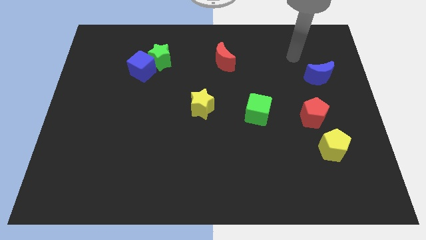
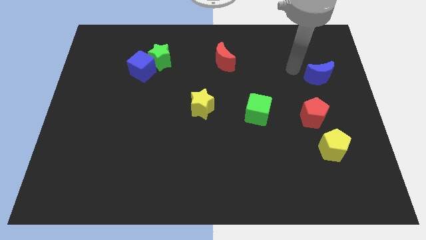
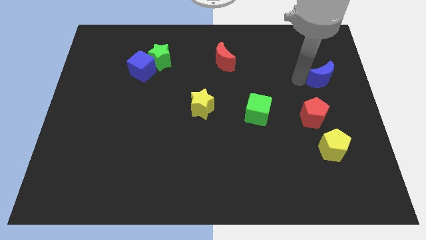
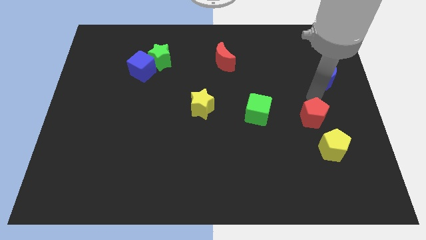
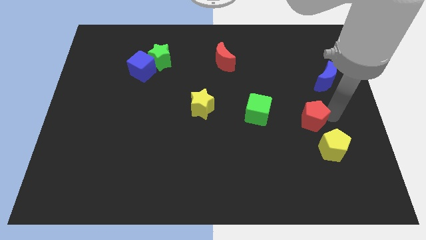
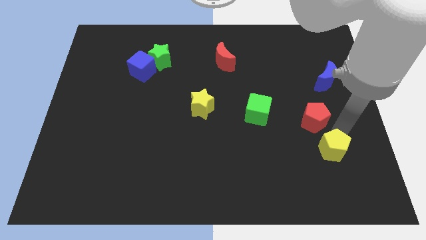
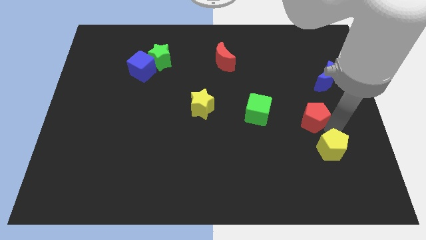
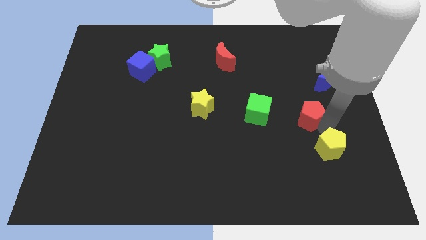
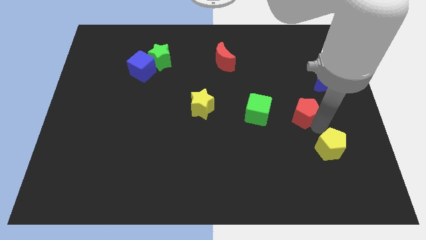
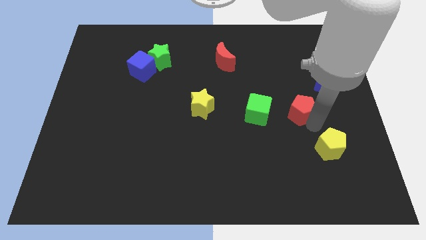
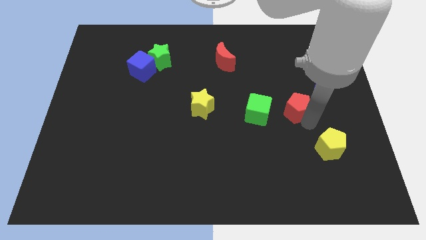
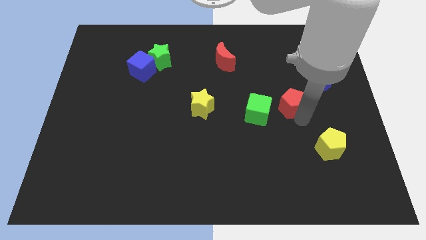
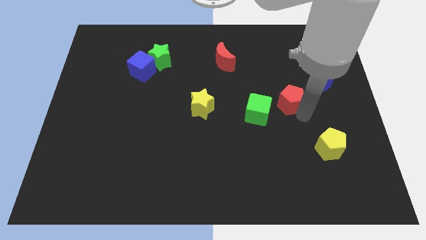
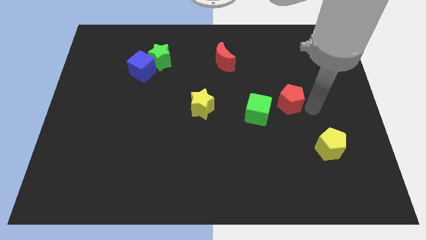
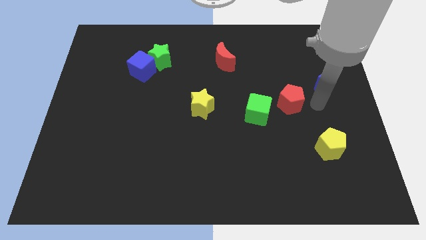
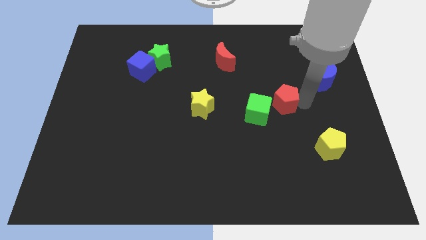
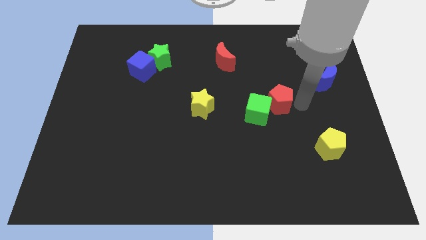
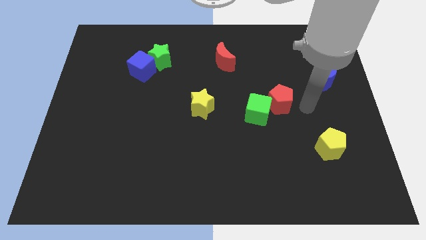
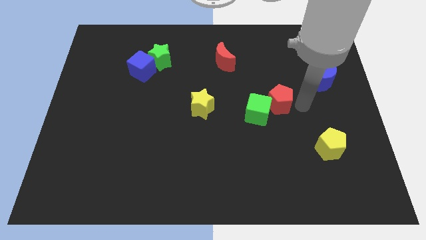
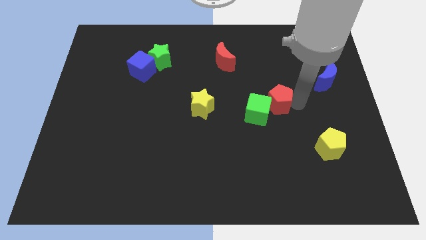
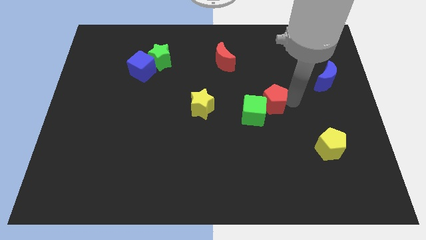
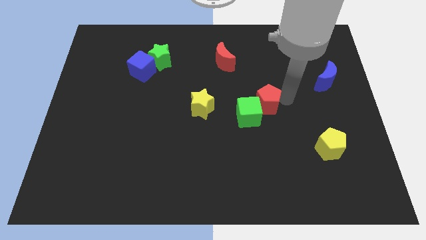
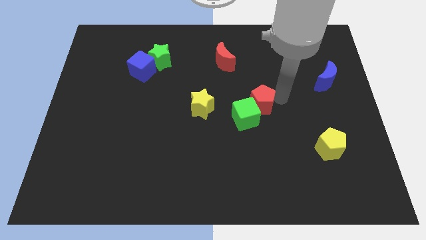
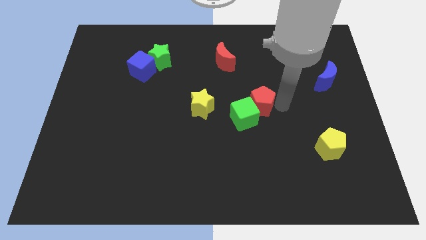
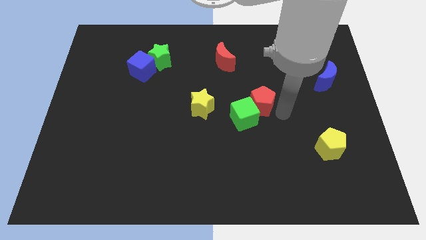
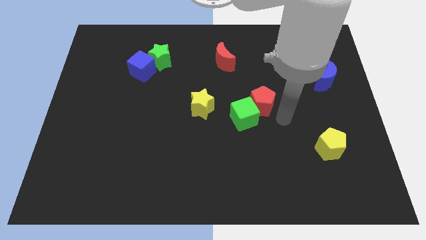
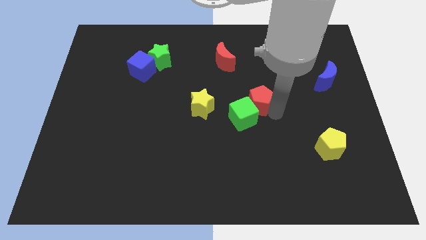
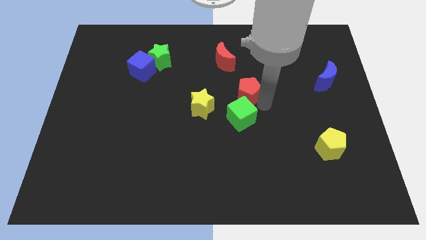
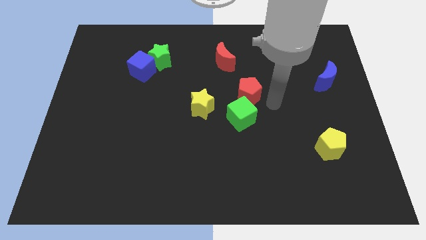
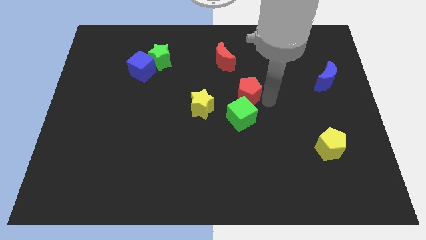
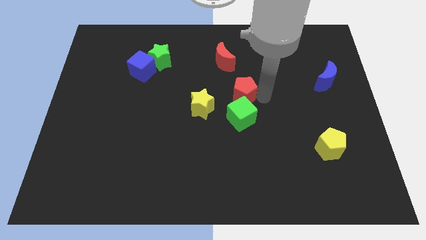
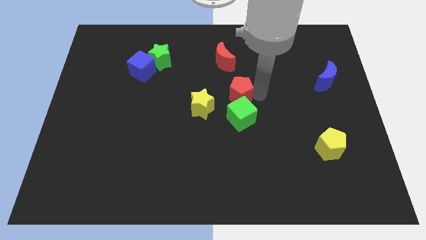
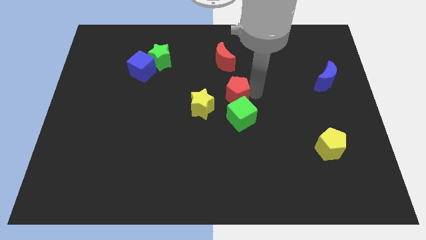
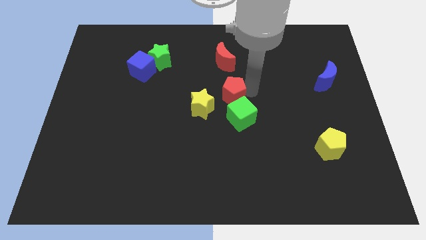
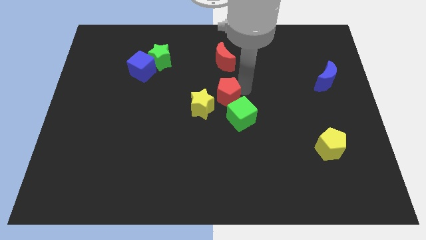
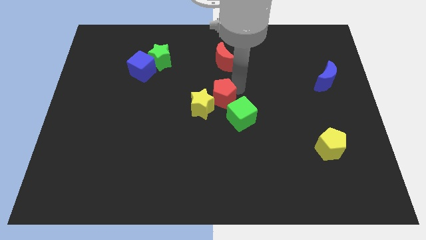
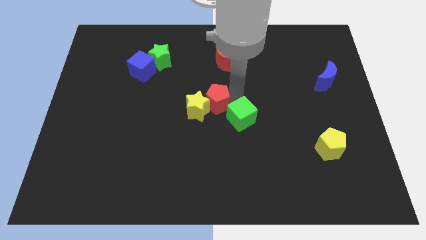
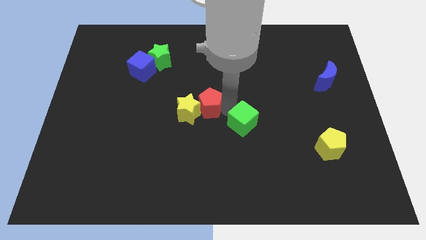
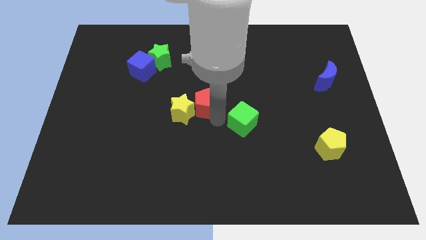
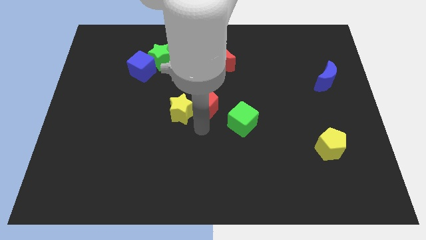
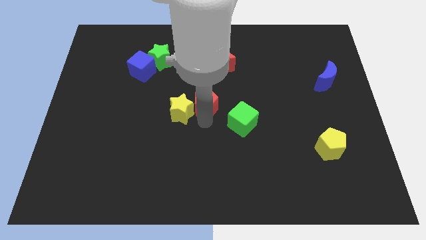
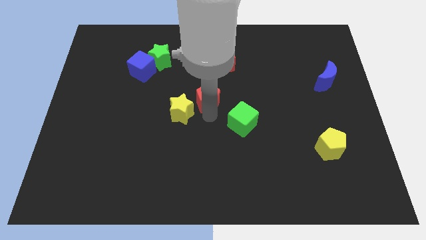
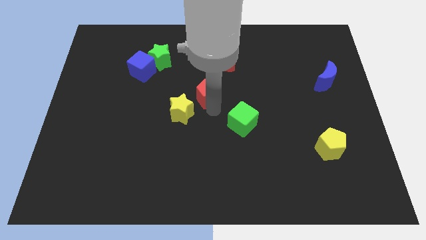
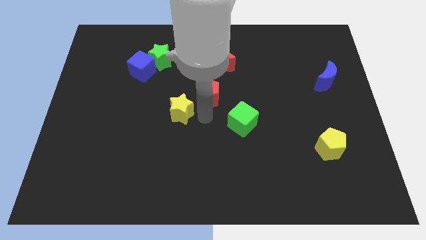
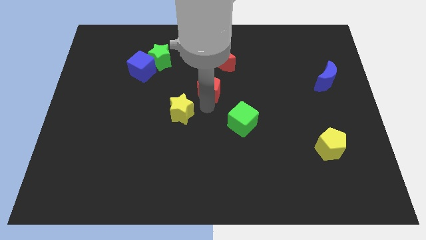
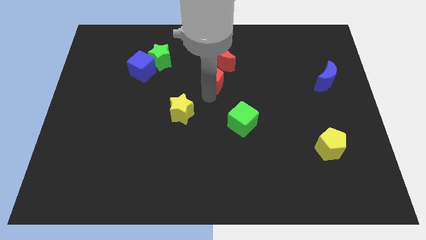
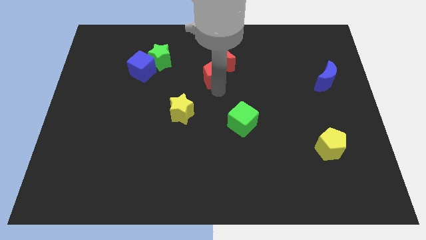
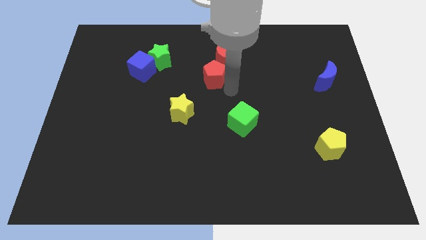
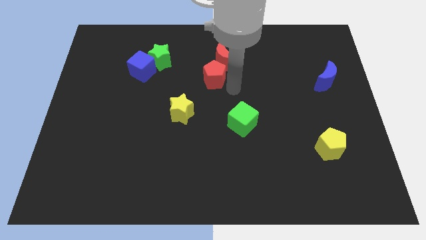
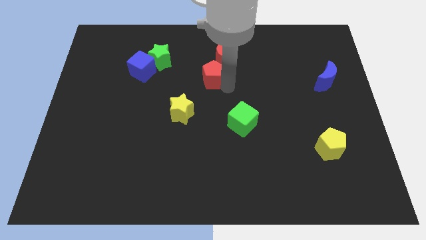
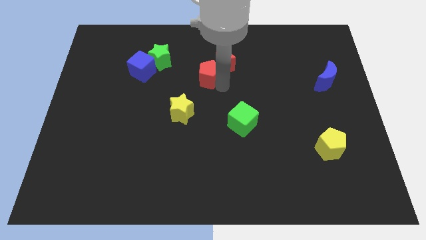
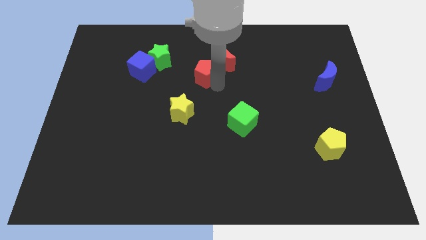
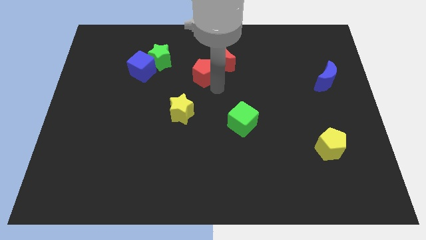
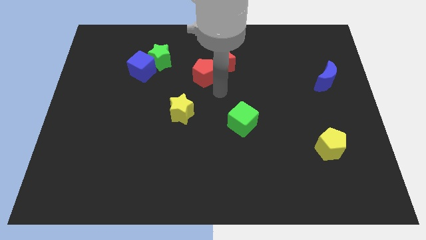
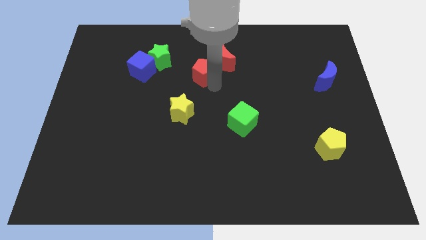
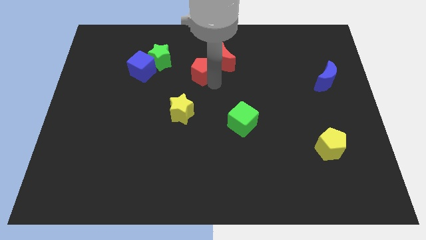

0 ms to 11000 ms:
put the red pentagon left of the red moon

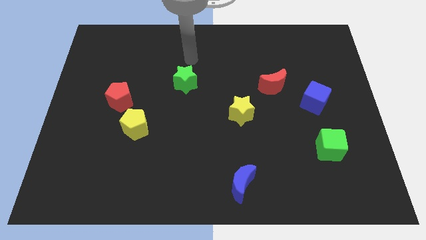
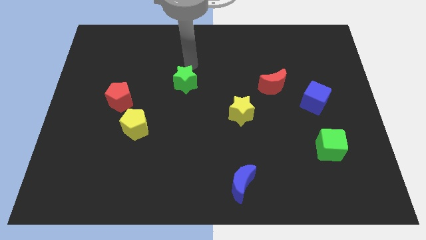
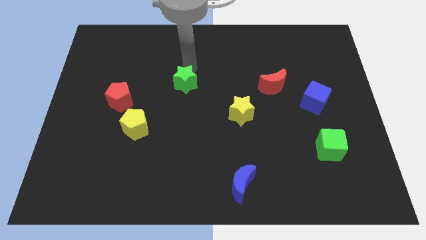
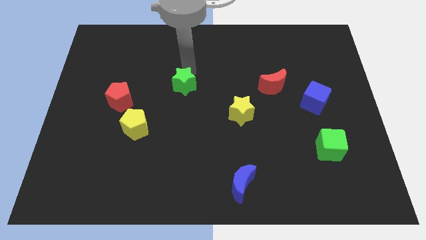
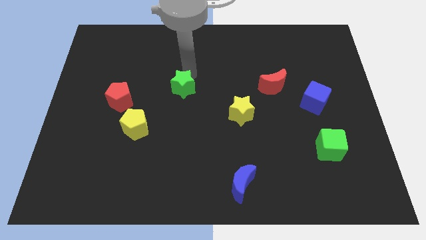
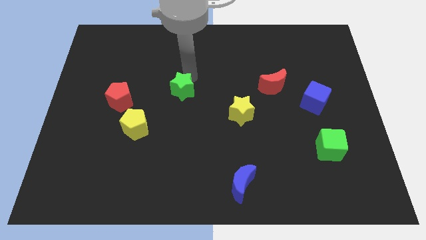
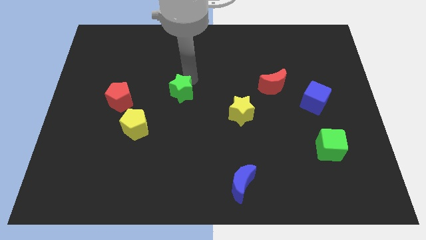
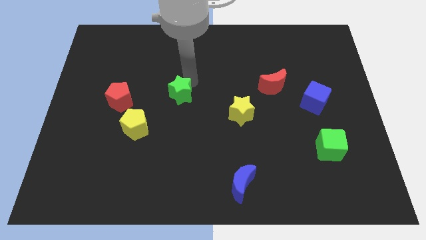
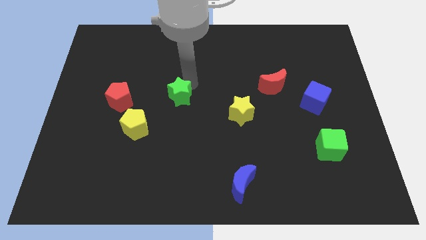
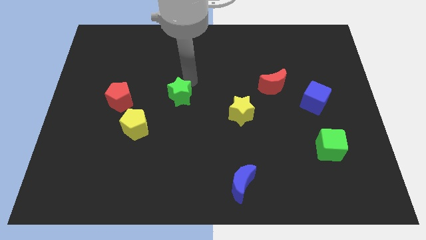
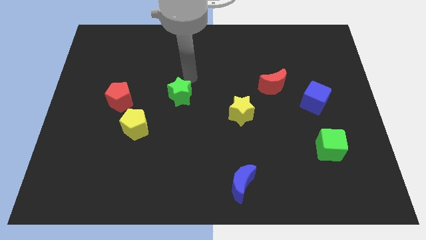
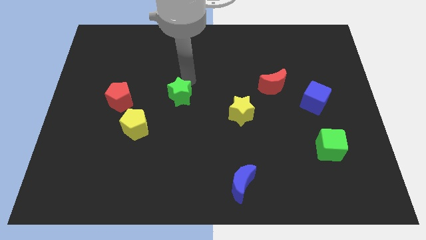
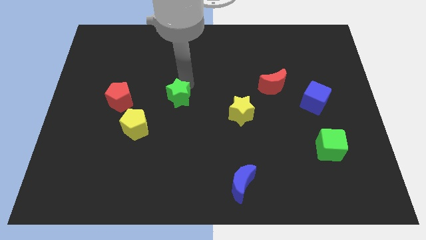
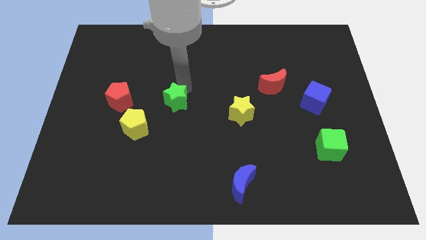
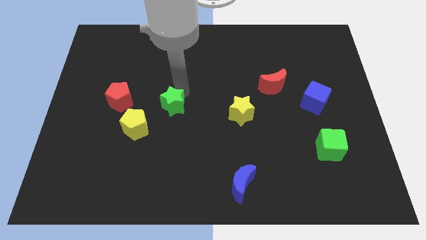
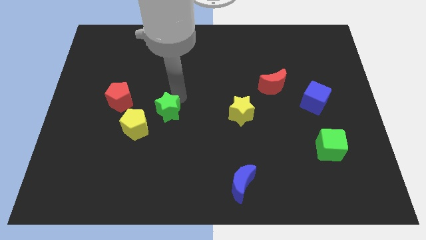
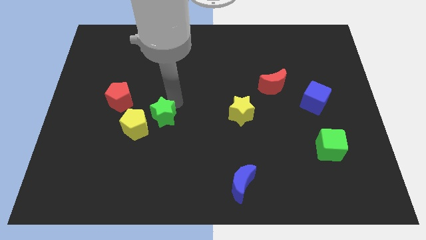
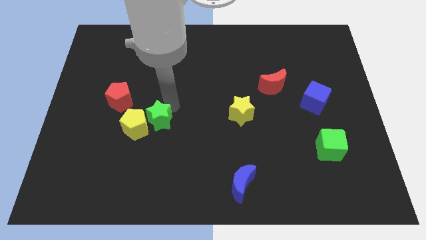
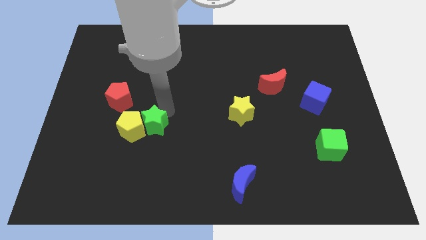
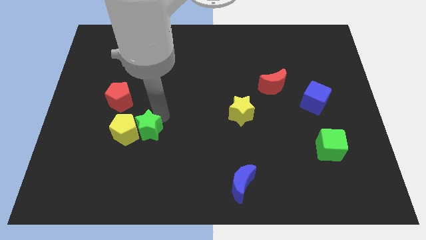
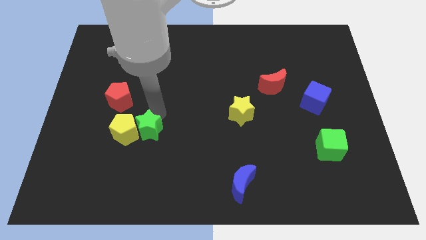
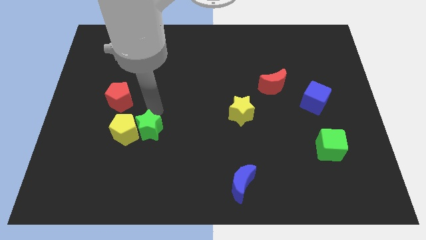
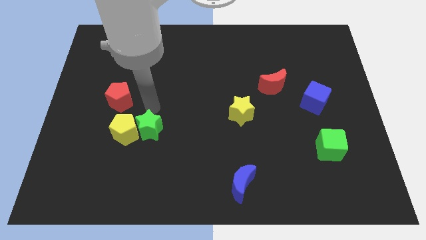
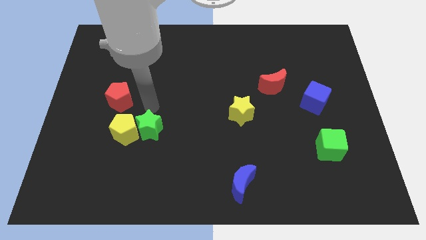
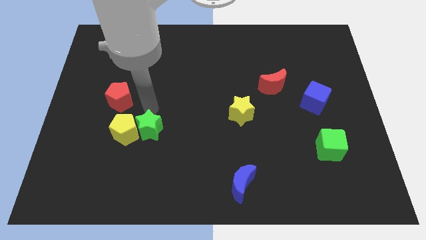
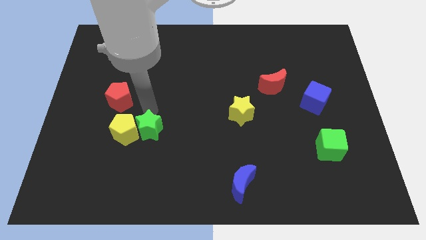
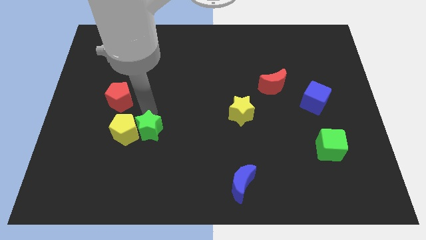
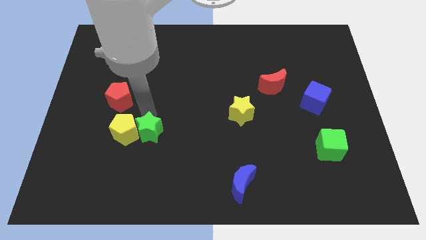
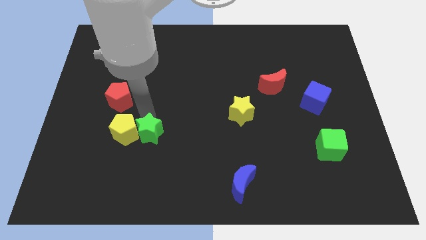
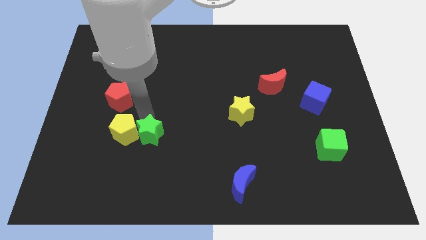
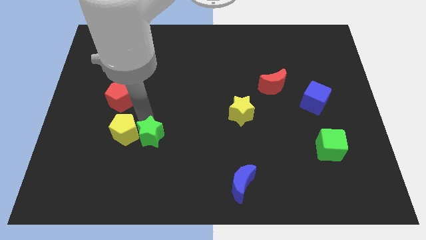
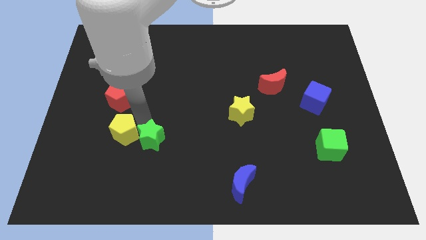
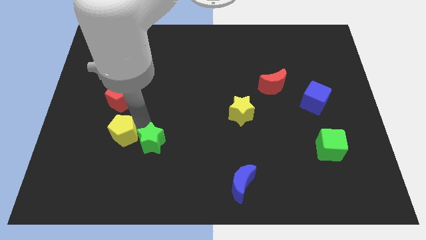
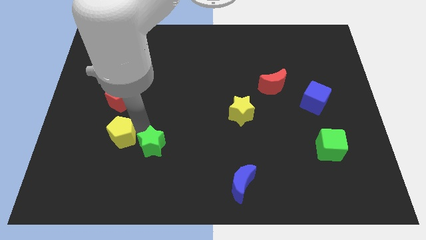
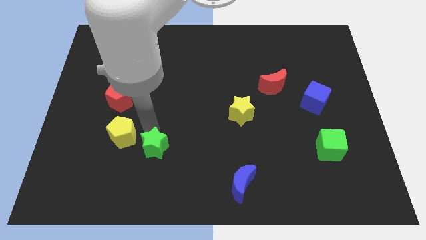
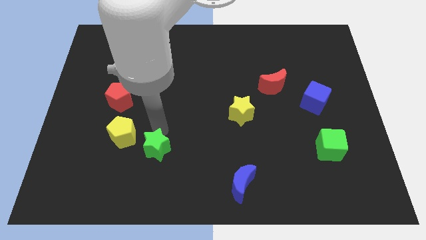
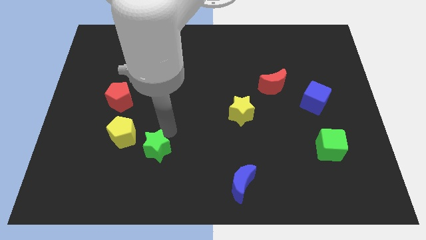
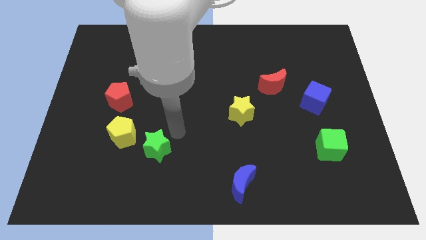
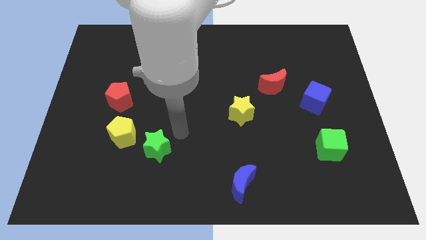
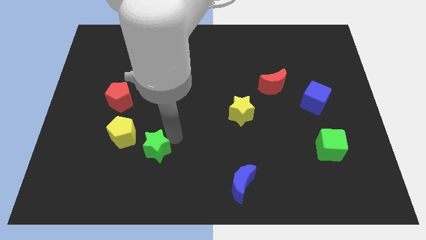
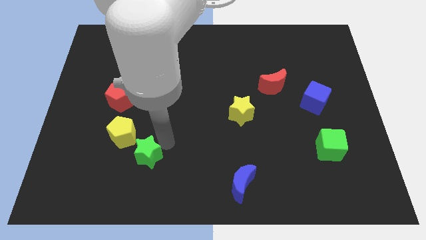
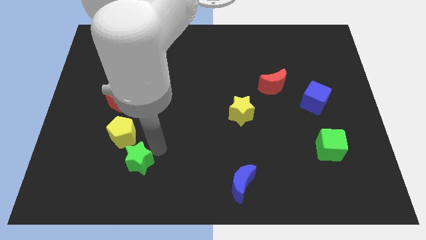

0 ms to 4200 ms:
move the green star to the bottom of the yellow pentagon
